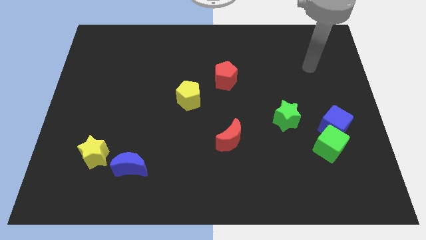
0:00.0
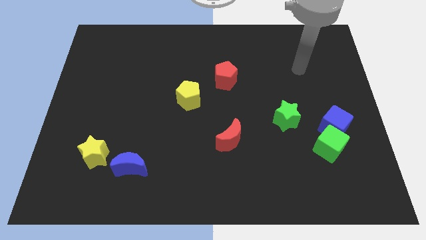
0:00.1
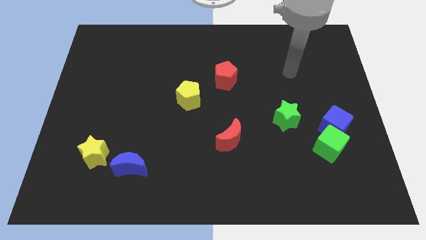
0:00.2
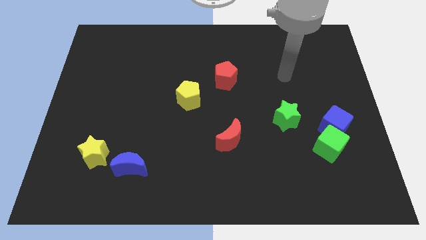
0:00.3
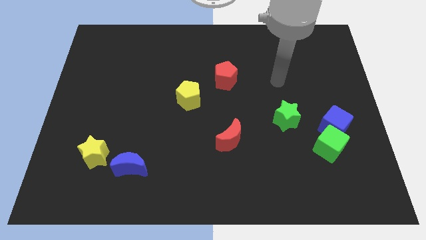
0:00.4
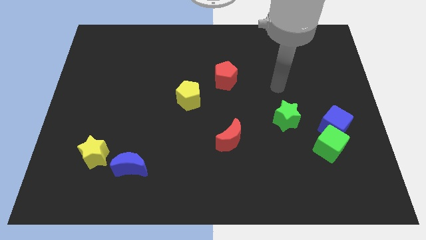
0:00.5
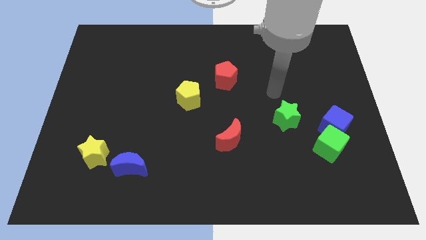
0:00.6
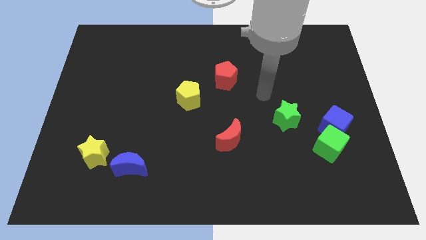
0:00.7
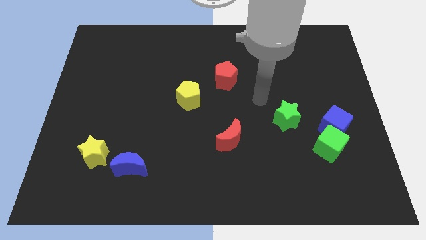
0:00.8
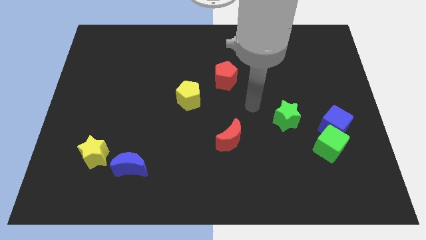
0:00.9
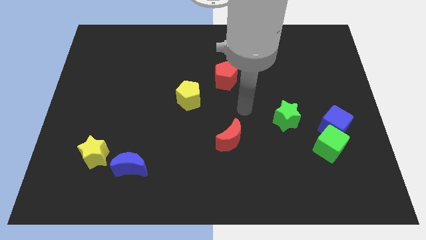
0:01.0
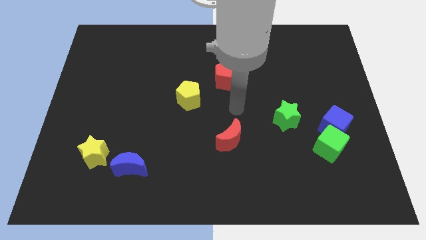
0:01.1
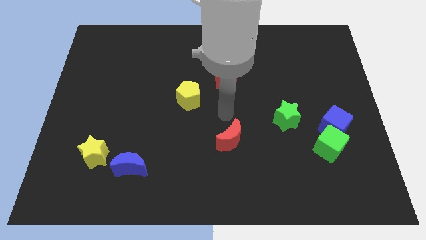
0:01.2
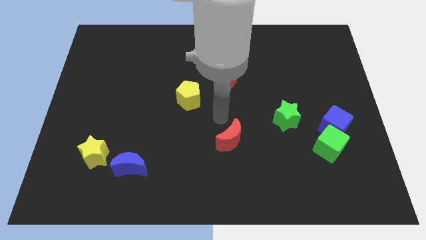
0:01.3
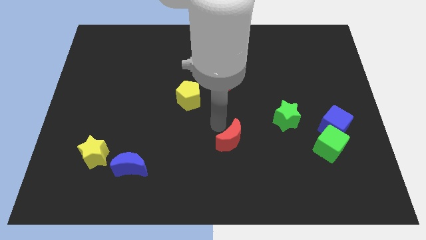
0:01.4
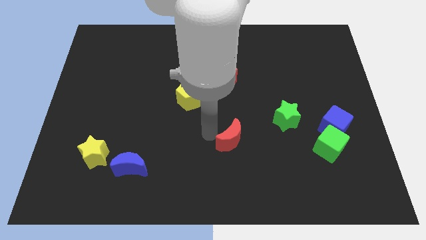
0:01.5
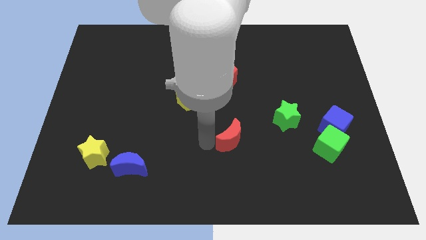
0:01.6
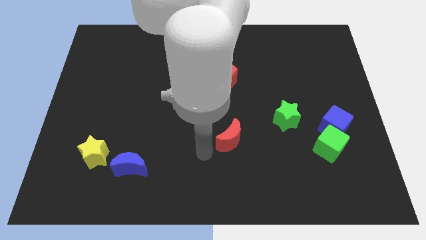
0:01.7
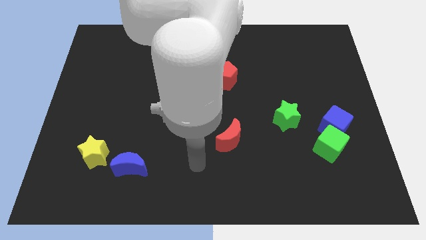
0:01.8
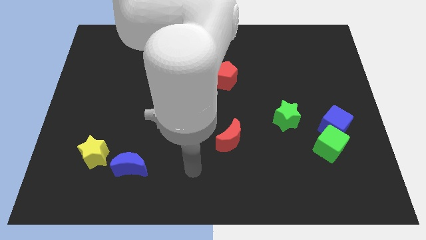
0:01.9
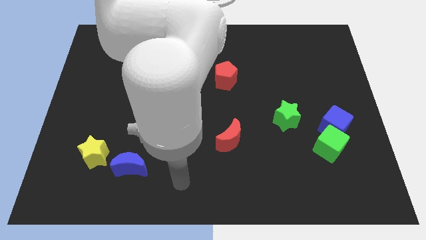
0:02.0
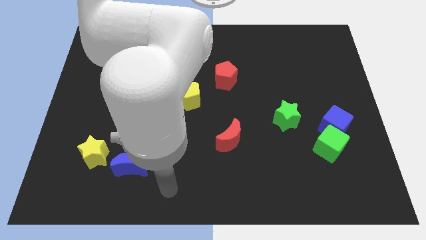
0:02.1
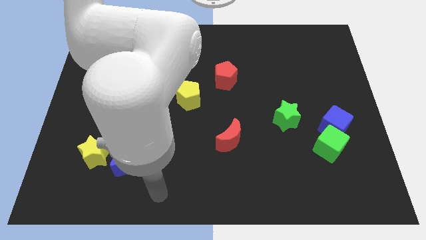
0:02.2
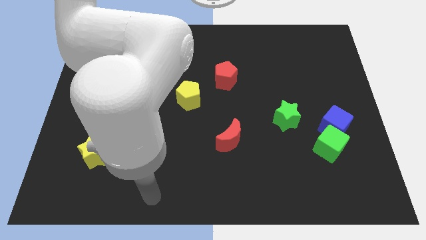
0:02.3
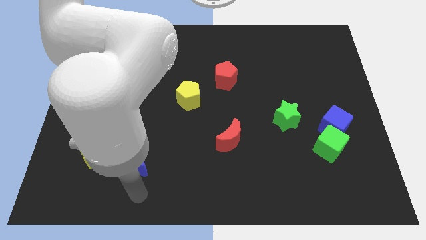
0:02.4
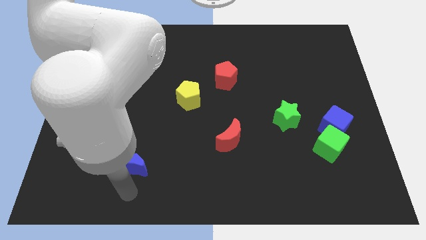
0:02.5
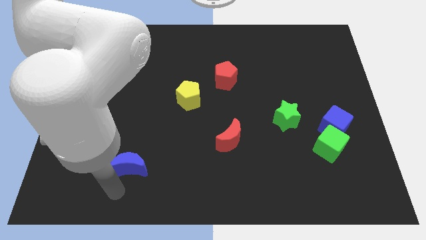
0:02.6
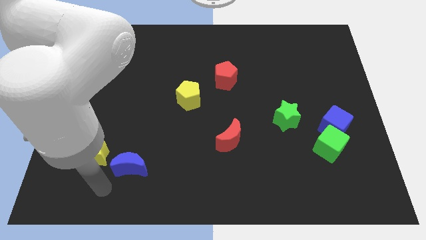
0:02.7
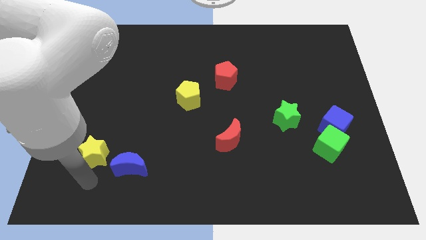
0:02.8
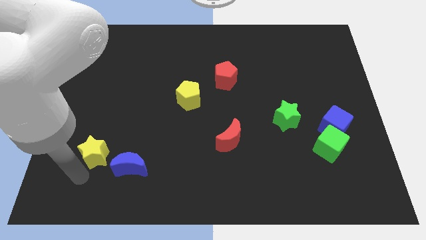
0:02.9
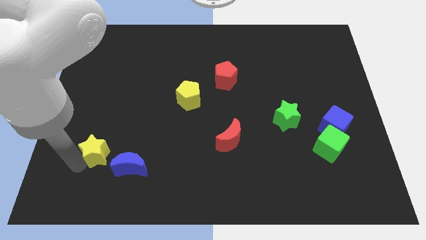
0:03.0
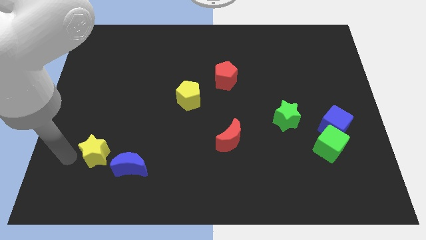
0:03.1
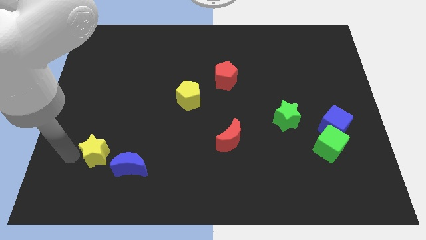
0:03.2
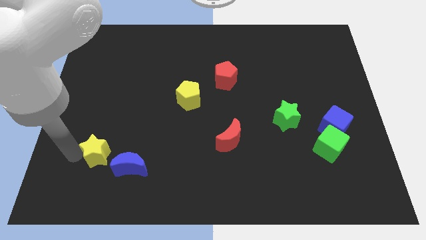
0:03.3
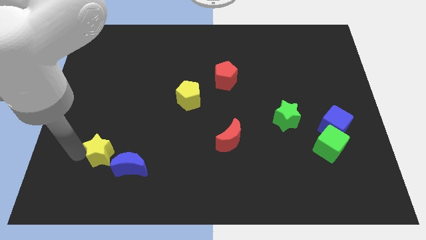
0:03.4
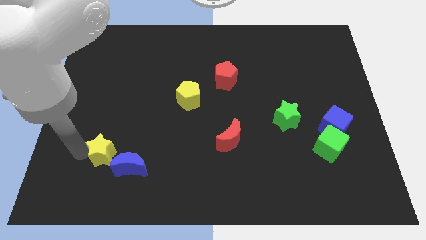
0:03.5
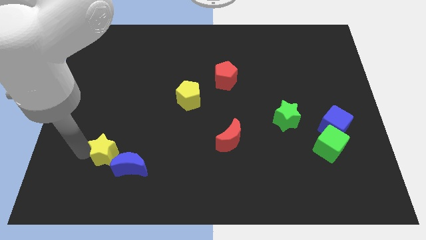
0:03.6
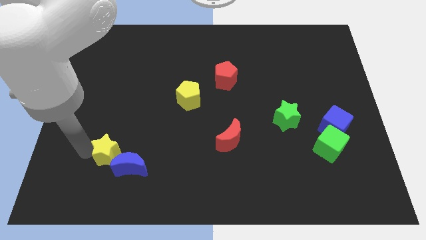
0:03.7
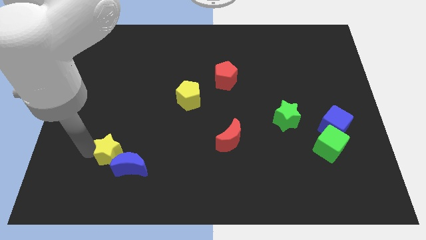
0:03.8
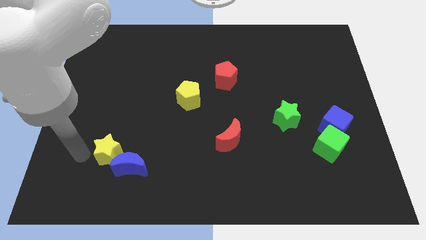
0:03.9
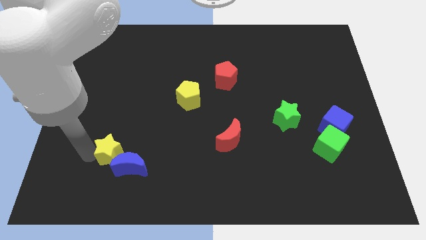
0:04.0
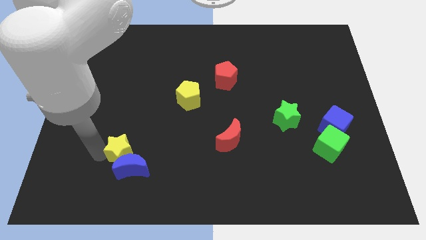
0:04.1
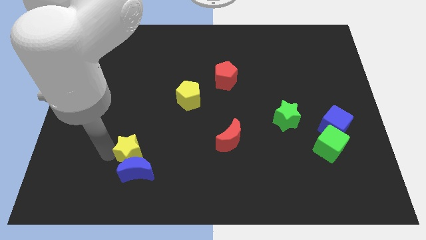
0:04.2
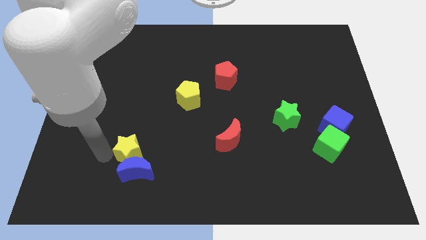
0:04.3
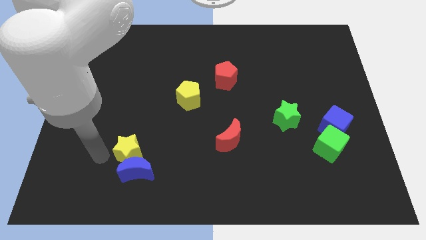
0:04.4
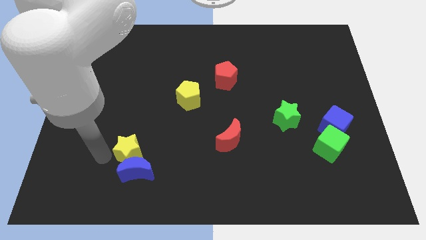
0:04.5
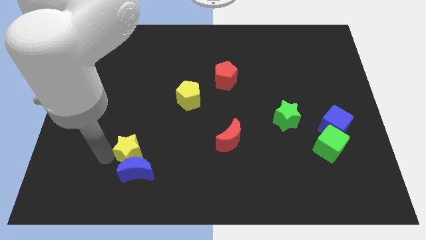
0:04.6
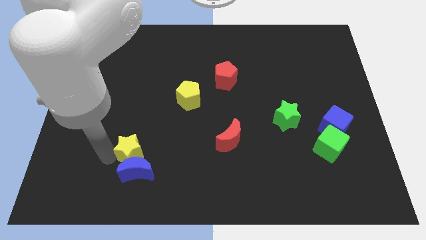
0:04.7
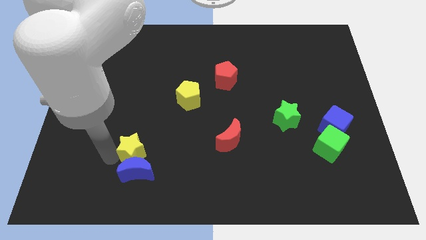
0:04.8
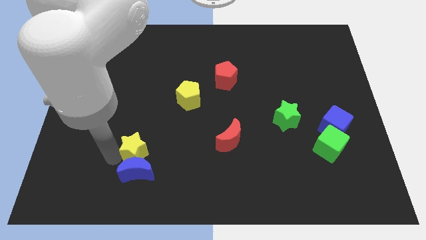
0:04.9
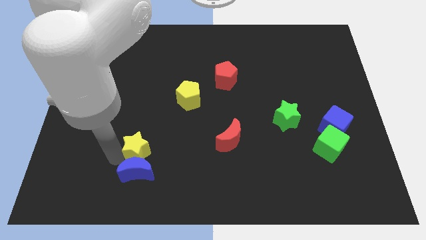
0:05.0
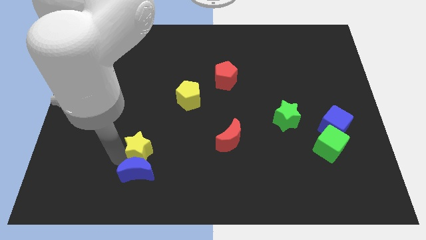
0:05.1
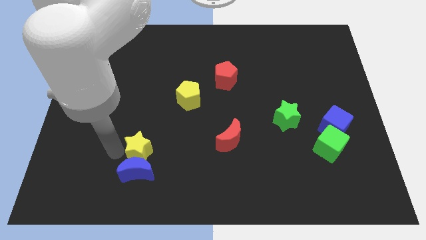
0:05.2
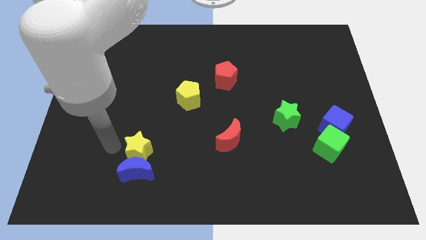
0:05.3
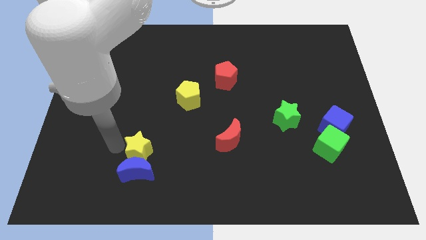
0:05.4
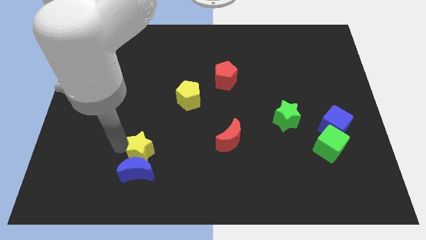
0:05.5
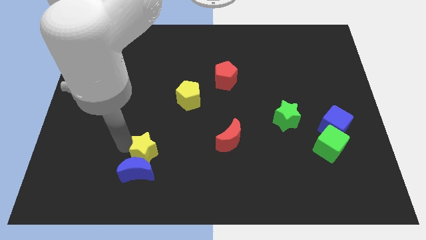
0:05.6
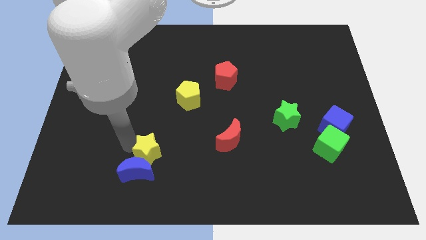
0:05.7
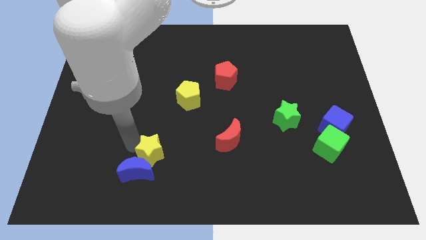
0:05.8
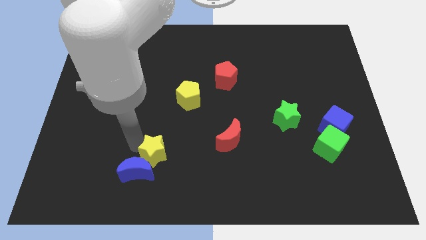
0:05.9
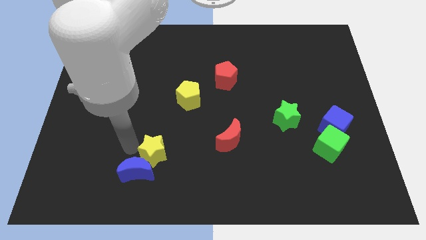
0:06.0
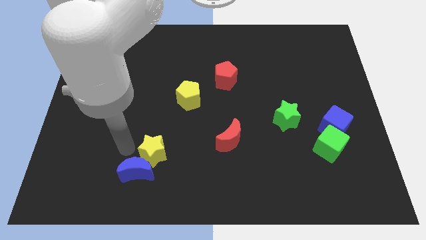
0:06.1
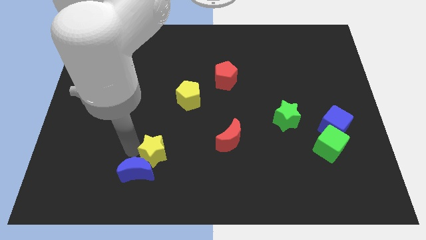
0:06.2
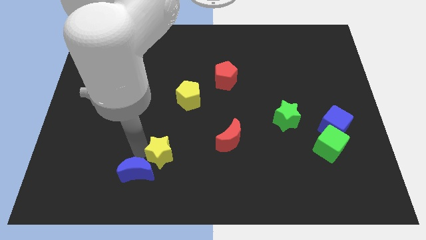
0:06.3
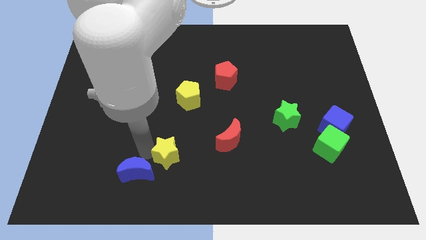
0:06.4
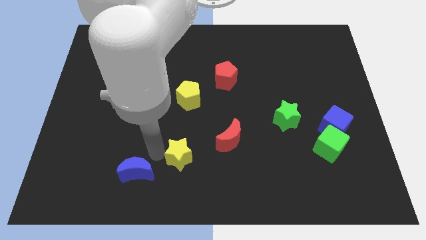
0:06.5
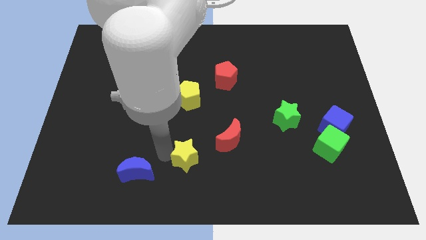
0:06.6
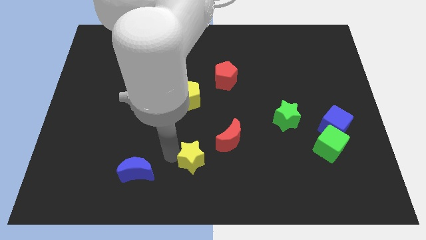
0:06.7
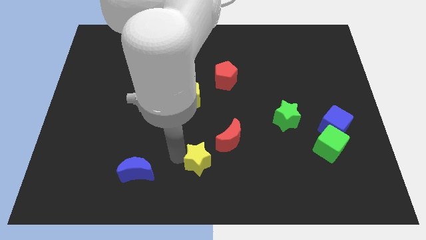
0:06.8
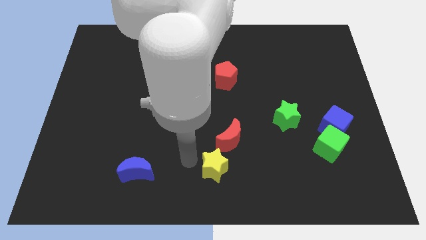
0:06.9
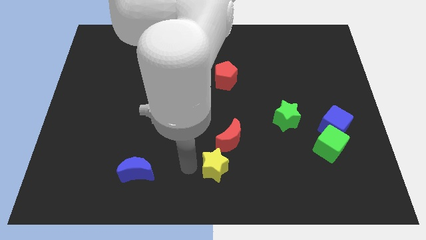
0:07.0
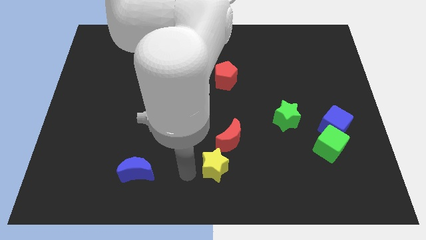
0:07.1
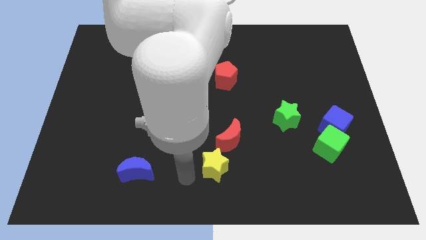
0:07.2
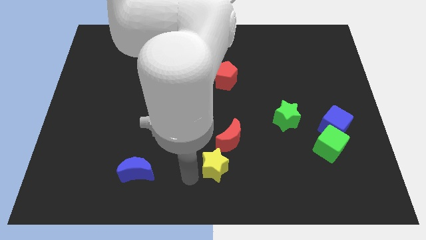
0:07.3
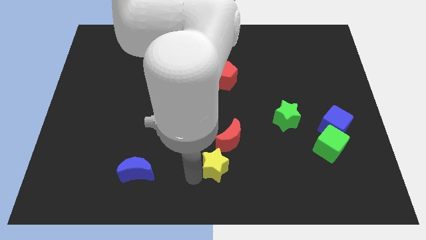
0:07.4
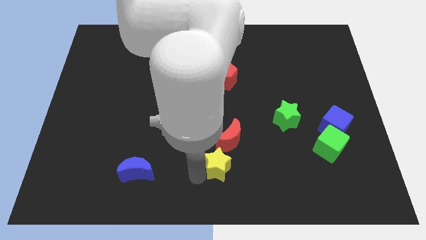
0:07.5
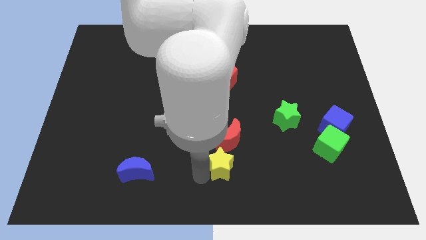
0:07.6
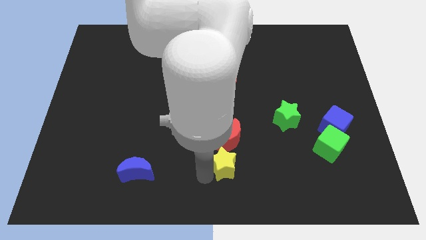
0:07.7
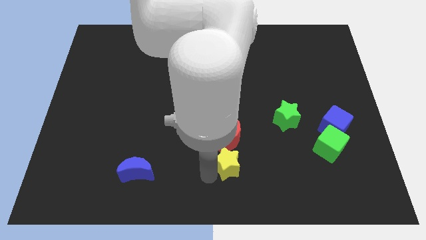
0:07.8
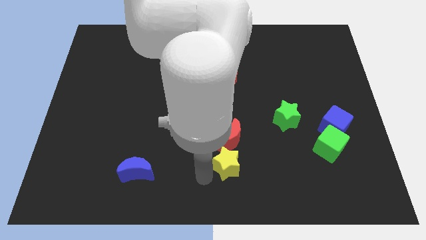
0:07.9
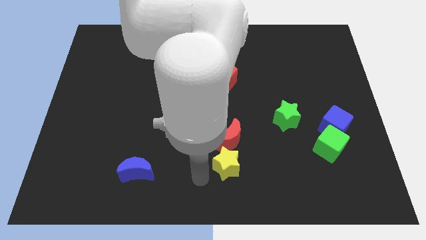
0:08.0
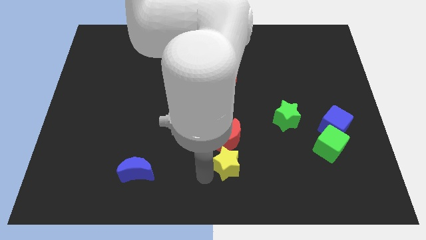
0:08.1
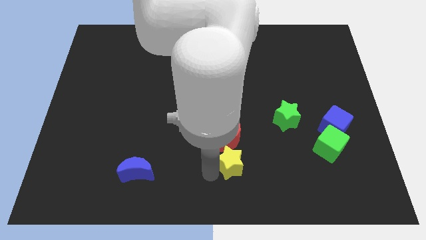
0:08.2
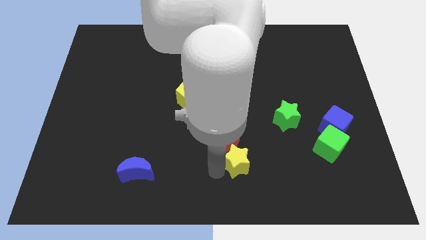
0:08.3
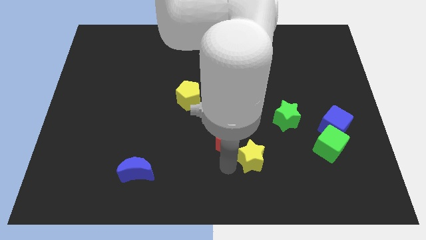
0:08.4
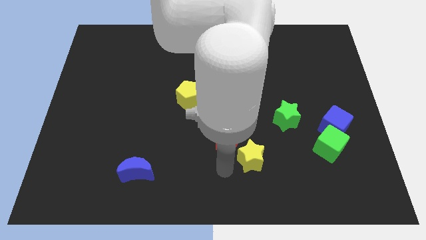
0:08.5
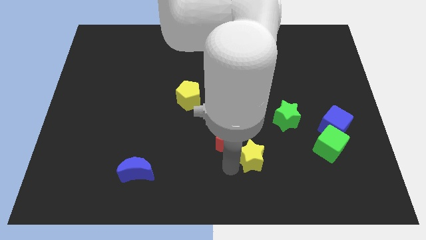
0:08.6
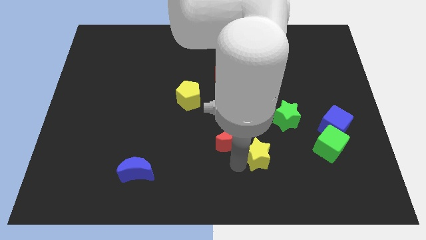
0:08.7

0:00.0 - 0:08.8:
slide the yellow star to the left of the green cube
